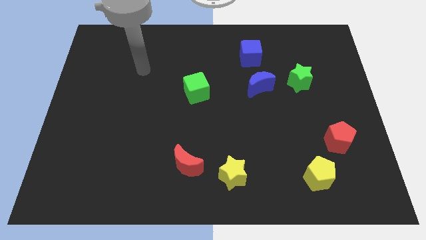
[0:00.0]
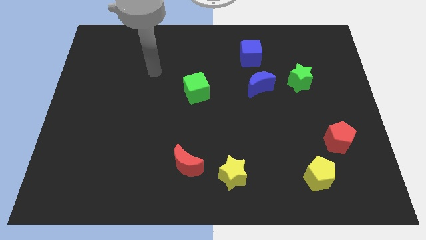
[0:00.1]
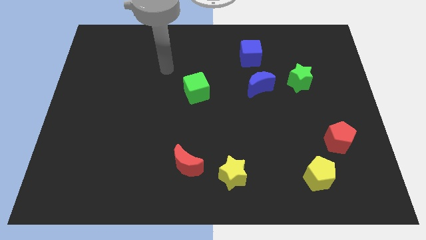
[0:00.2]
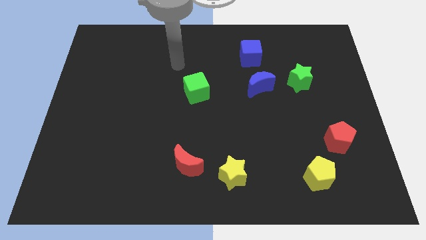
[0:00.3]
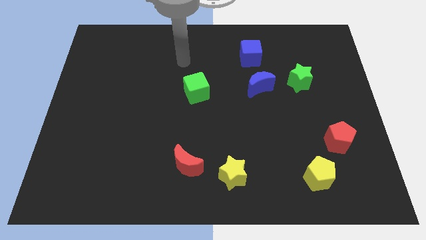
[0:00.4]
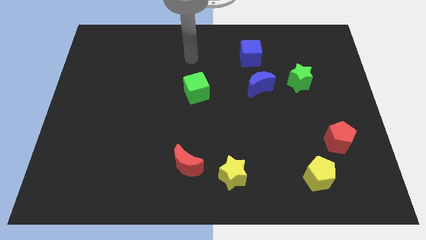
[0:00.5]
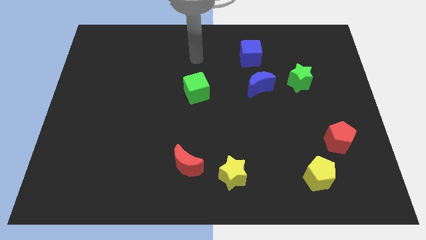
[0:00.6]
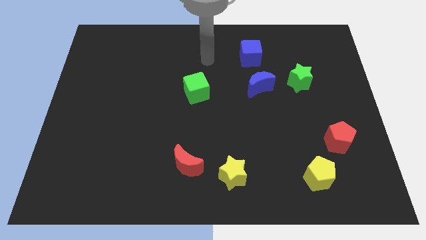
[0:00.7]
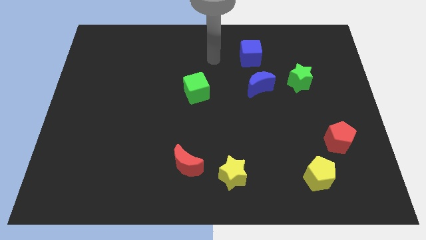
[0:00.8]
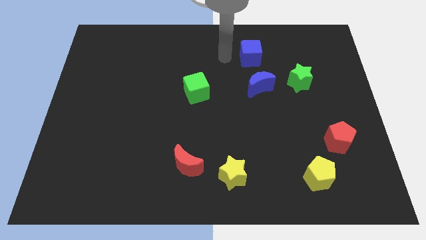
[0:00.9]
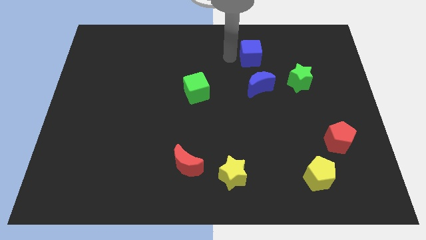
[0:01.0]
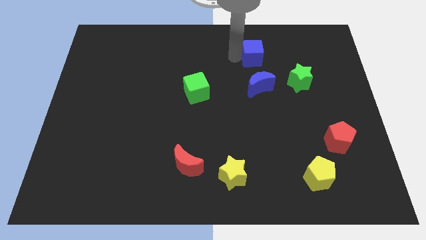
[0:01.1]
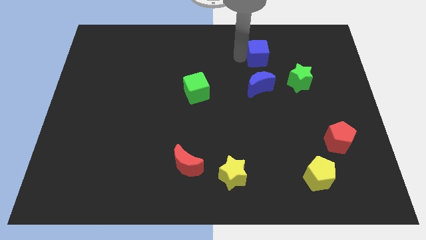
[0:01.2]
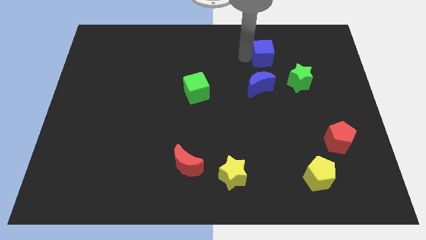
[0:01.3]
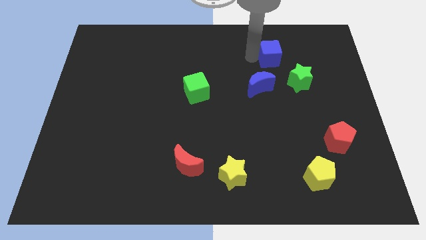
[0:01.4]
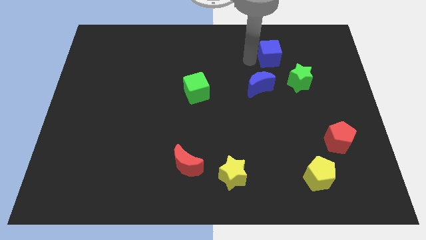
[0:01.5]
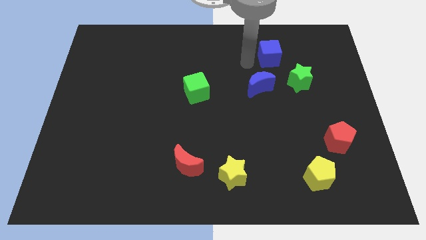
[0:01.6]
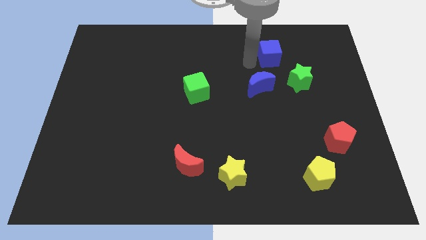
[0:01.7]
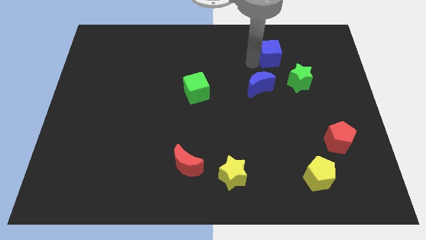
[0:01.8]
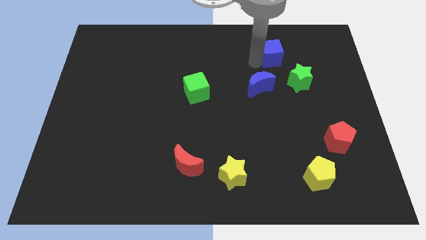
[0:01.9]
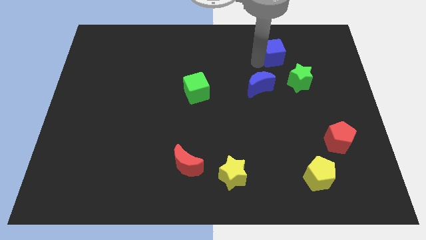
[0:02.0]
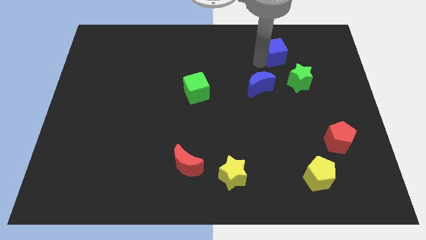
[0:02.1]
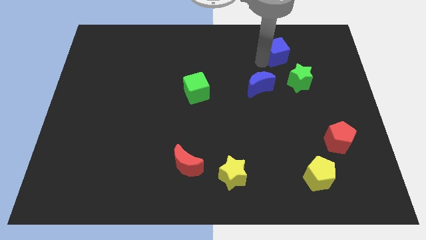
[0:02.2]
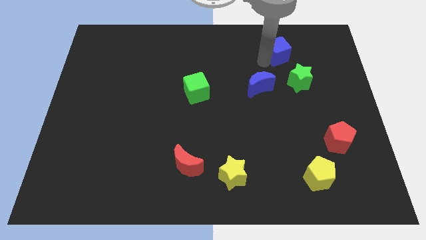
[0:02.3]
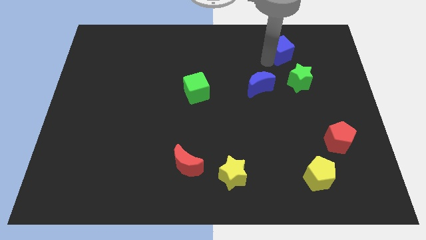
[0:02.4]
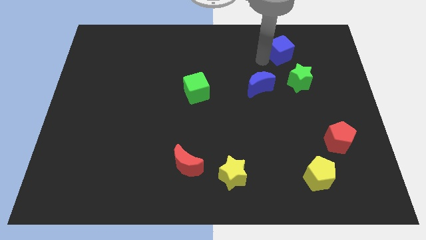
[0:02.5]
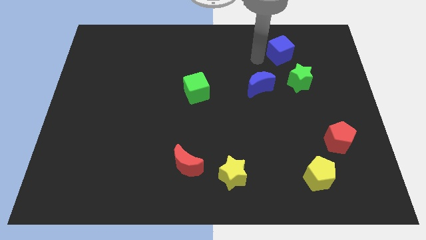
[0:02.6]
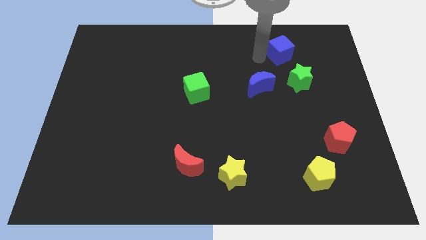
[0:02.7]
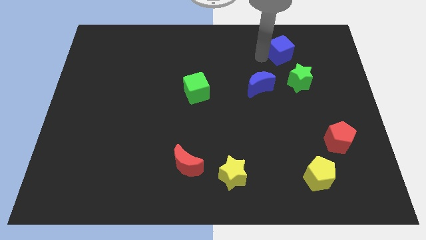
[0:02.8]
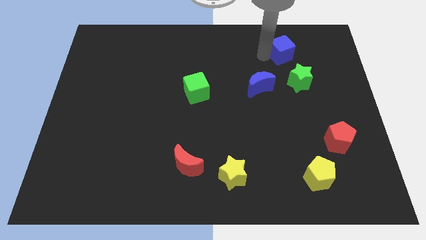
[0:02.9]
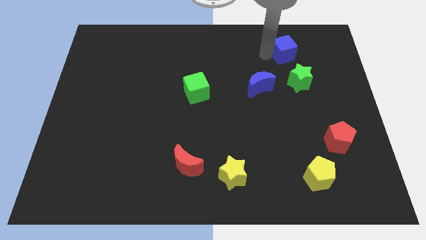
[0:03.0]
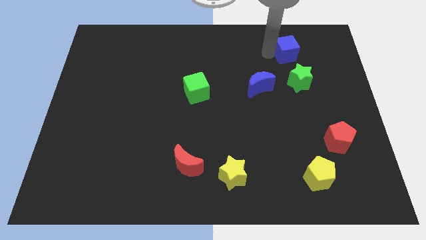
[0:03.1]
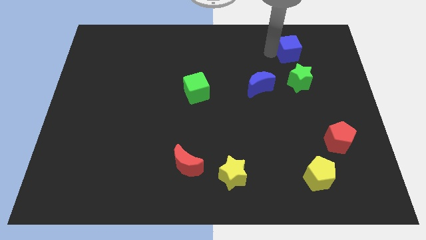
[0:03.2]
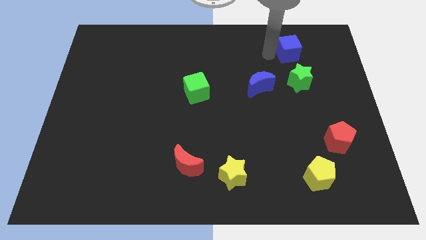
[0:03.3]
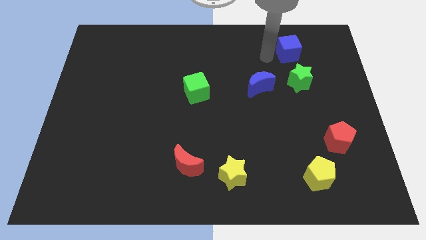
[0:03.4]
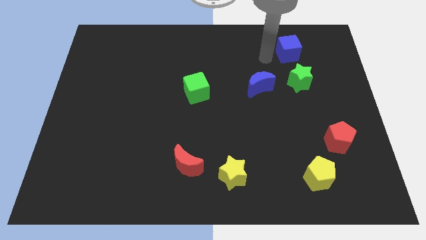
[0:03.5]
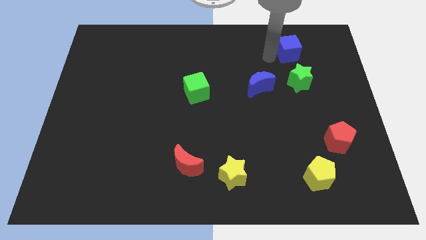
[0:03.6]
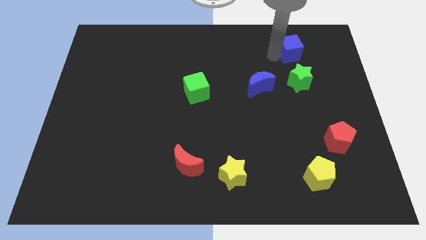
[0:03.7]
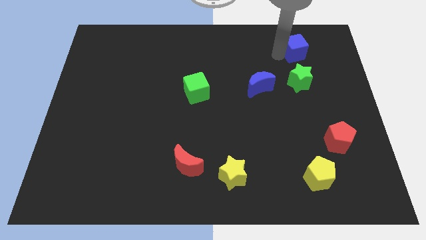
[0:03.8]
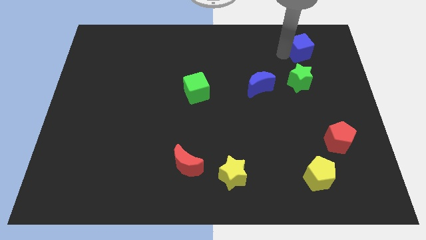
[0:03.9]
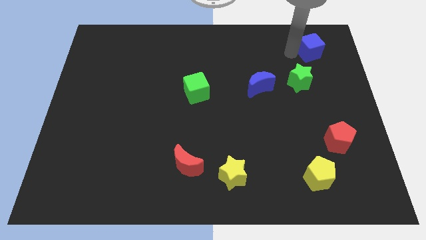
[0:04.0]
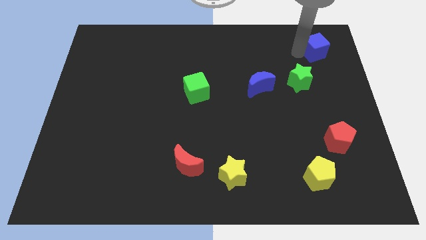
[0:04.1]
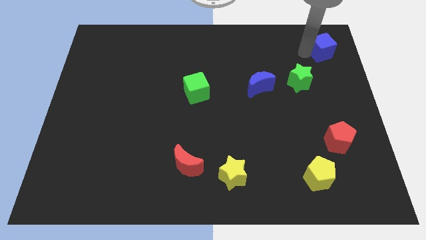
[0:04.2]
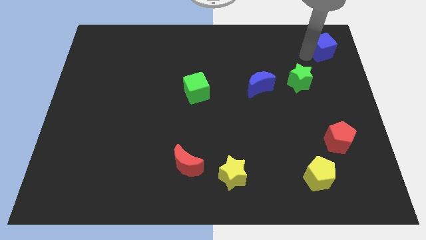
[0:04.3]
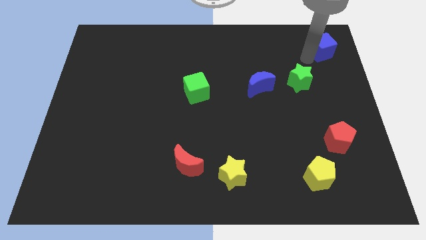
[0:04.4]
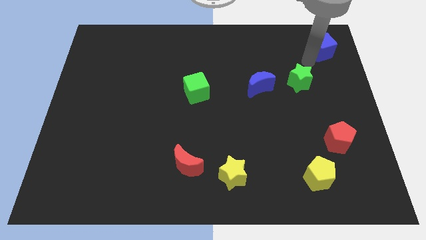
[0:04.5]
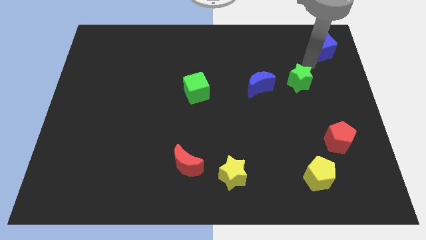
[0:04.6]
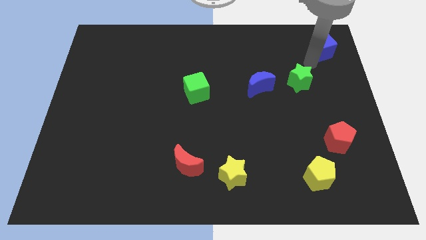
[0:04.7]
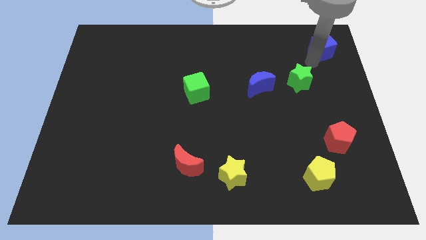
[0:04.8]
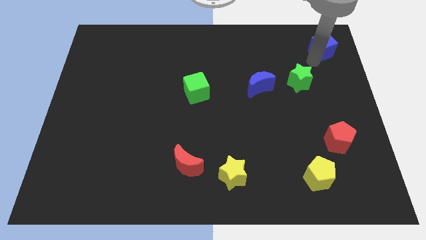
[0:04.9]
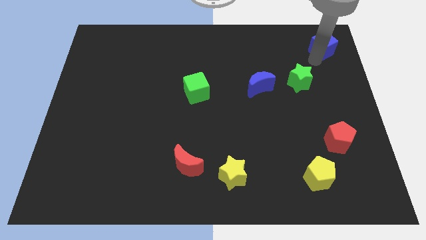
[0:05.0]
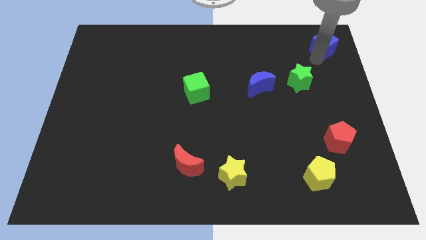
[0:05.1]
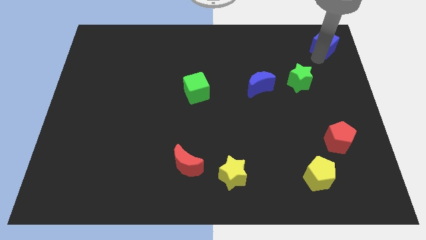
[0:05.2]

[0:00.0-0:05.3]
push the blue cube to the upper right corner

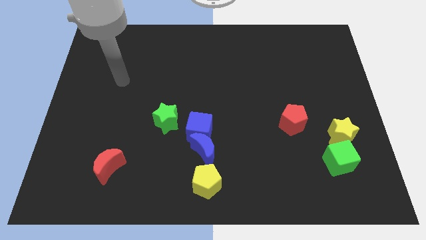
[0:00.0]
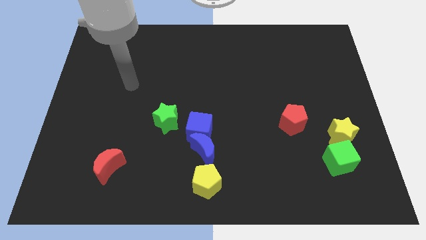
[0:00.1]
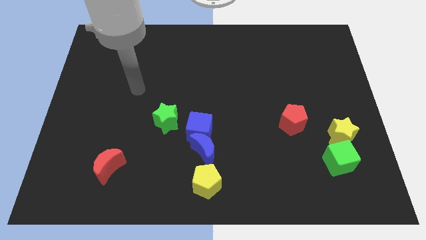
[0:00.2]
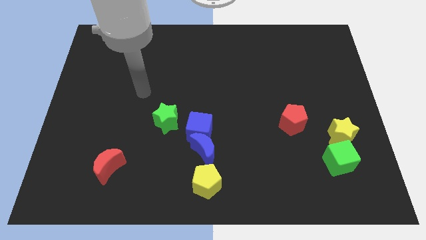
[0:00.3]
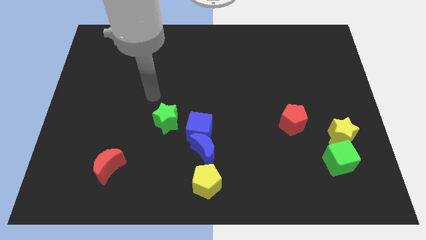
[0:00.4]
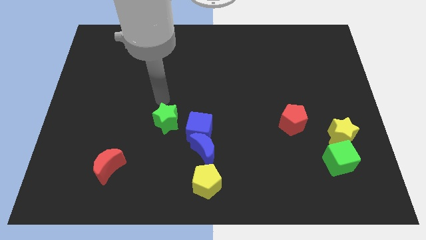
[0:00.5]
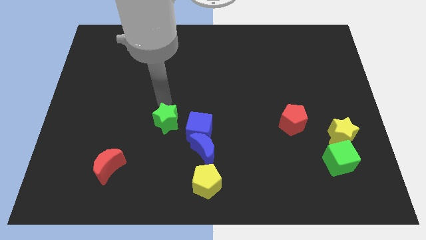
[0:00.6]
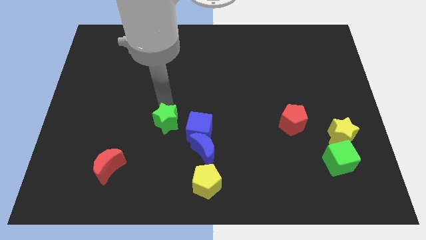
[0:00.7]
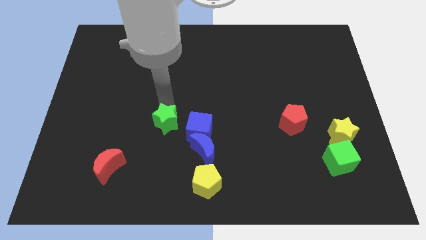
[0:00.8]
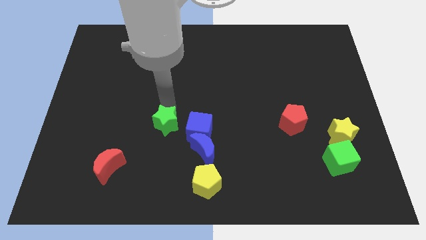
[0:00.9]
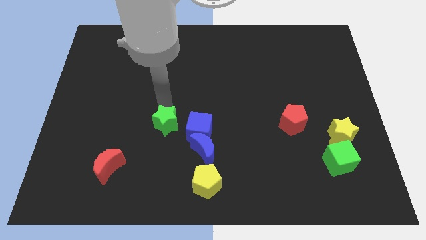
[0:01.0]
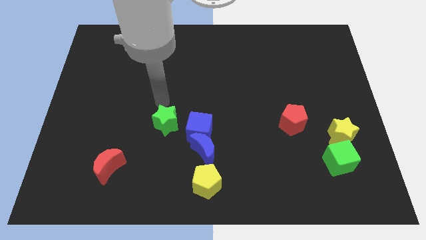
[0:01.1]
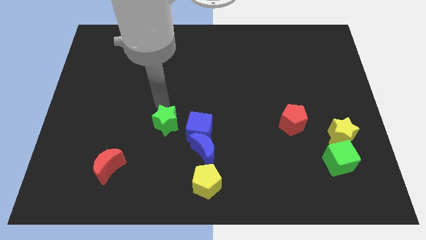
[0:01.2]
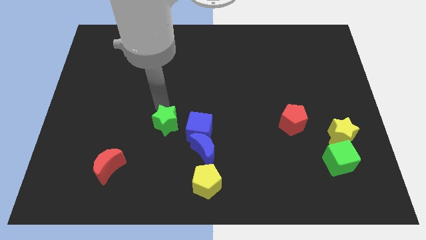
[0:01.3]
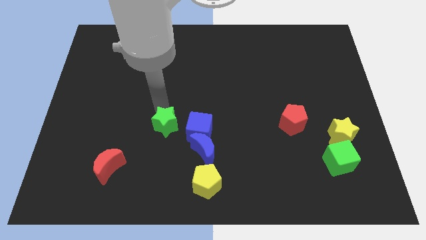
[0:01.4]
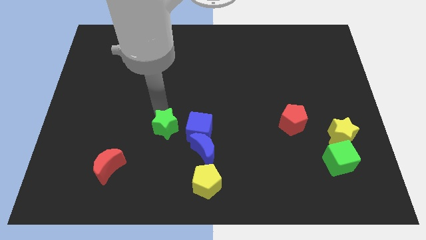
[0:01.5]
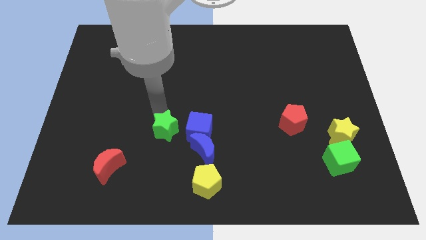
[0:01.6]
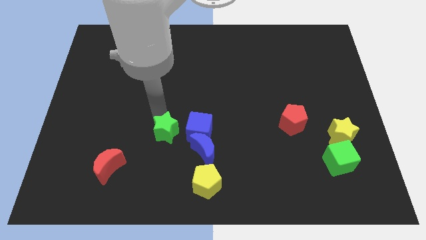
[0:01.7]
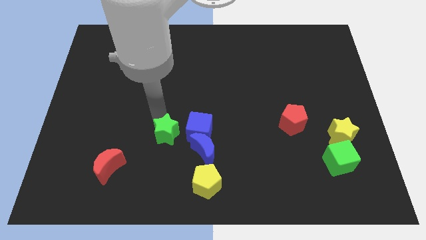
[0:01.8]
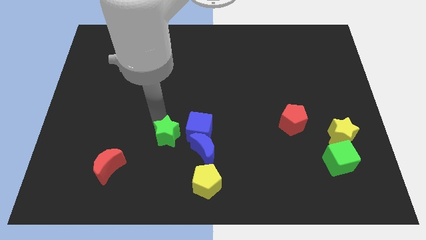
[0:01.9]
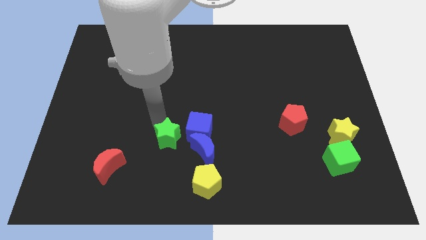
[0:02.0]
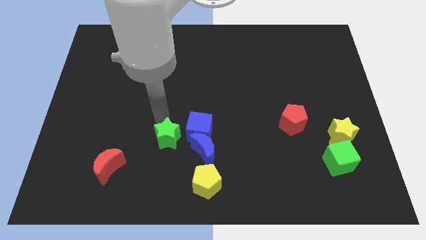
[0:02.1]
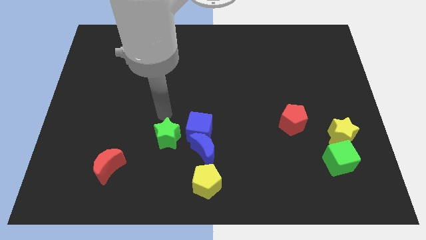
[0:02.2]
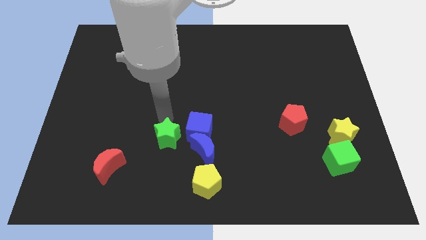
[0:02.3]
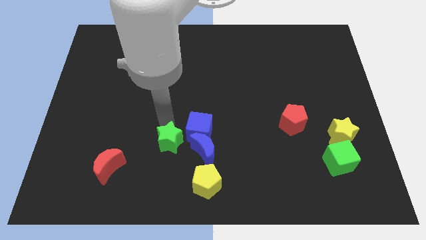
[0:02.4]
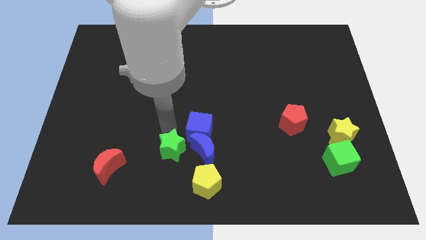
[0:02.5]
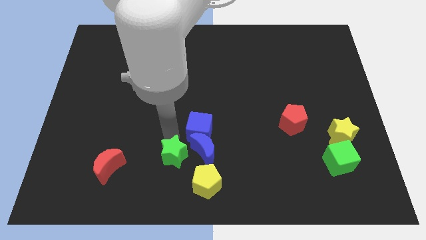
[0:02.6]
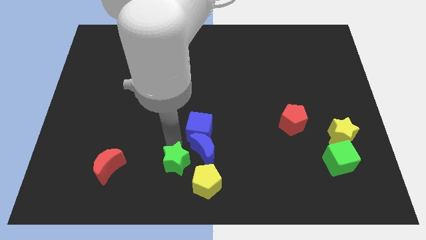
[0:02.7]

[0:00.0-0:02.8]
slide the green star to the bottom
